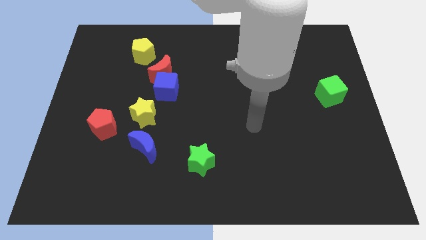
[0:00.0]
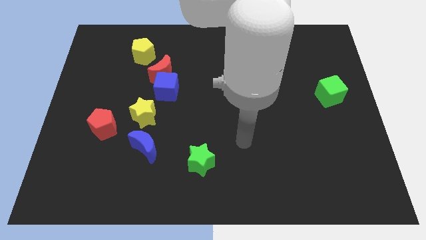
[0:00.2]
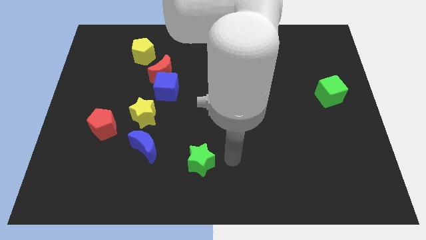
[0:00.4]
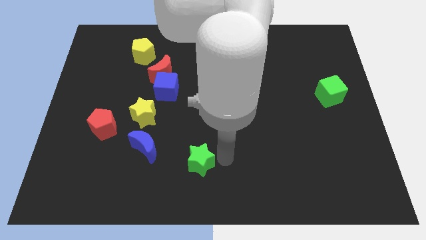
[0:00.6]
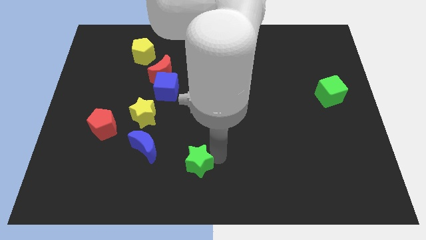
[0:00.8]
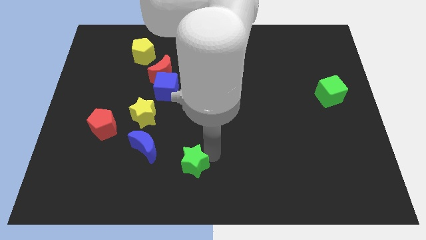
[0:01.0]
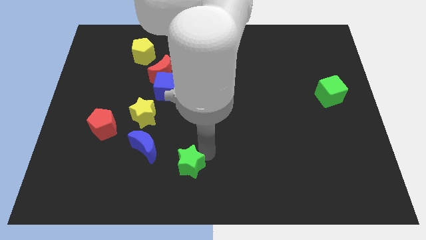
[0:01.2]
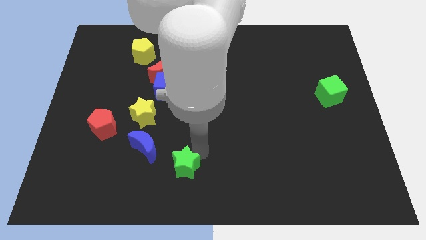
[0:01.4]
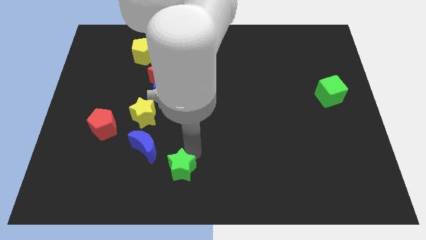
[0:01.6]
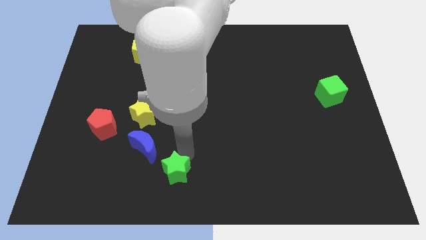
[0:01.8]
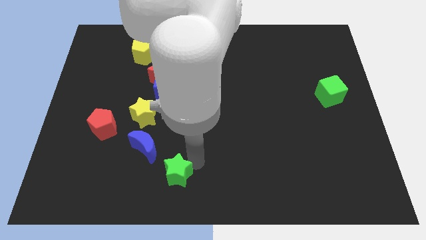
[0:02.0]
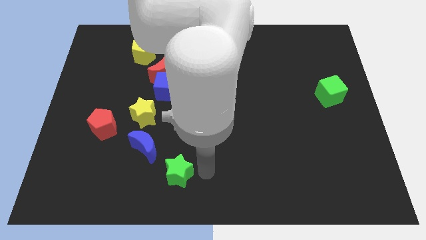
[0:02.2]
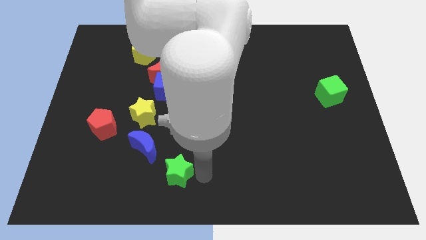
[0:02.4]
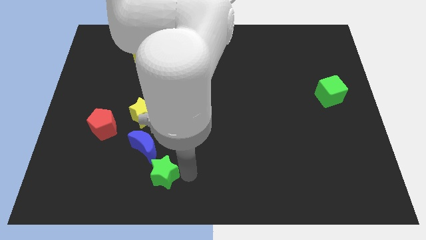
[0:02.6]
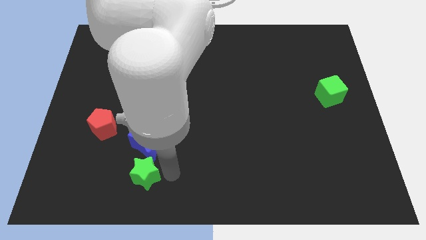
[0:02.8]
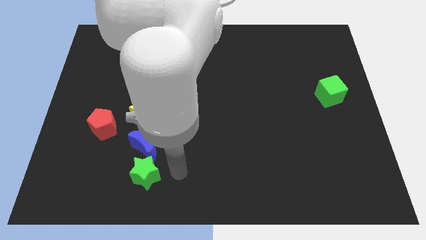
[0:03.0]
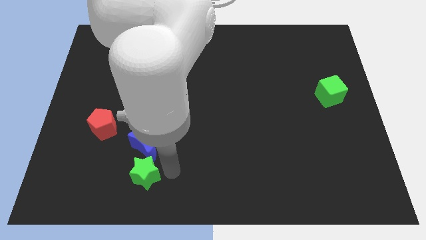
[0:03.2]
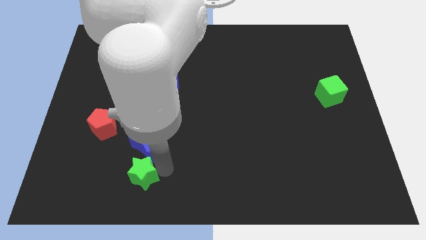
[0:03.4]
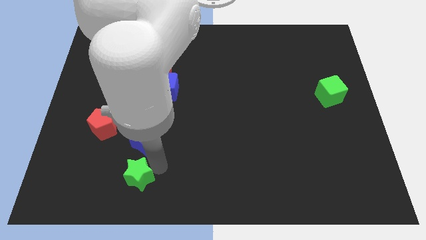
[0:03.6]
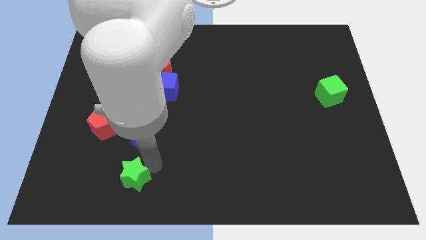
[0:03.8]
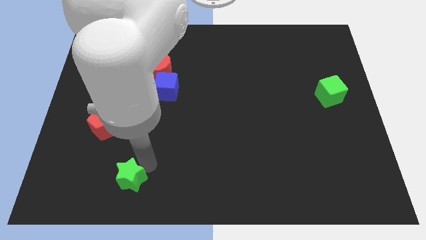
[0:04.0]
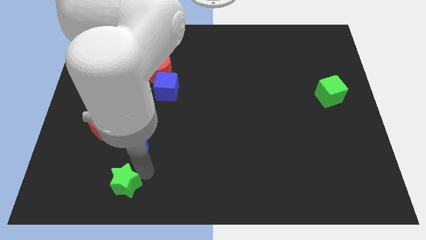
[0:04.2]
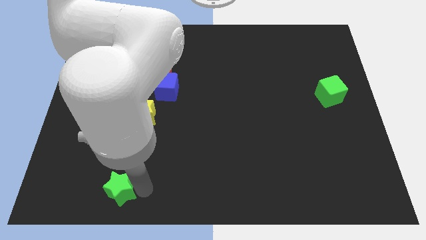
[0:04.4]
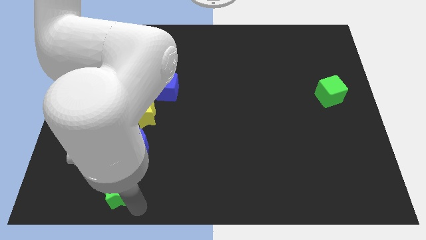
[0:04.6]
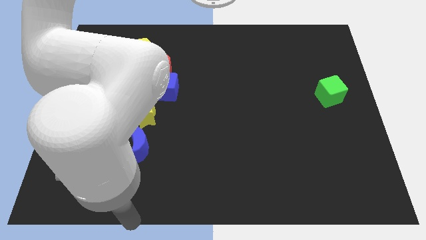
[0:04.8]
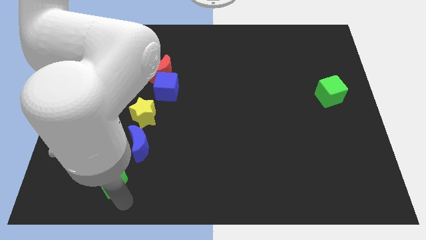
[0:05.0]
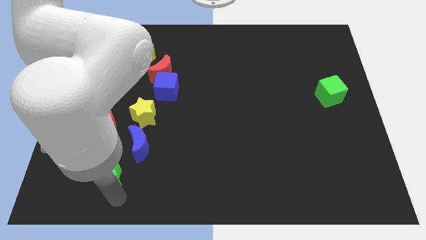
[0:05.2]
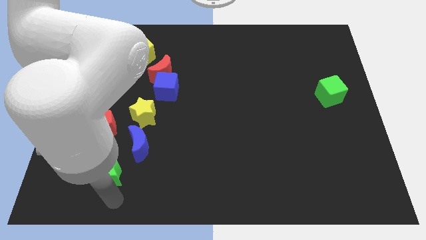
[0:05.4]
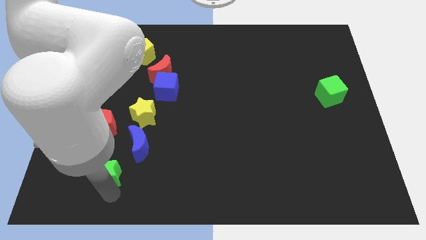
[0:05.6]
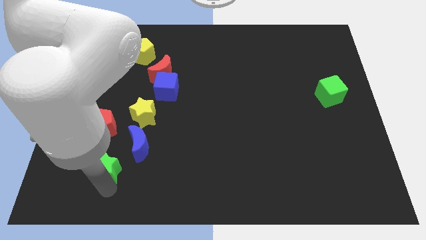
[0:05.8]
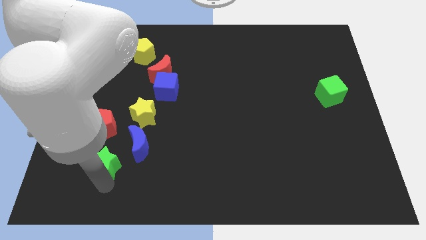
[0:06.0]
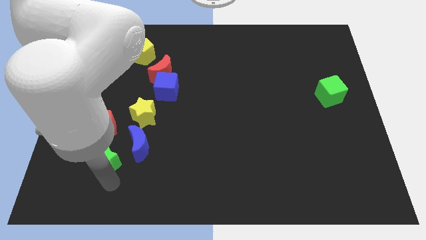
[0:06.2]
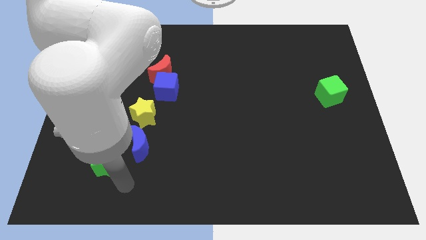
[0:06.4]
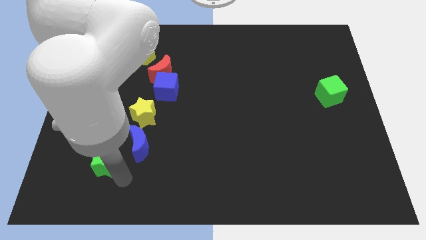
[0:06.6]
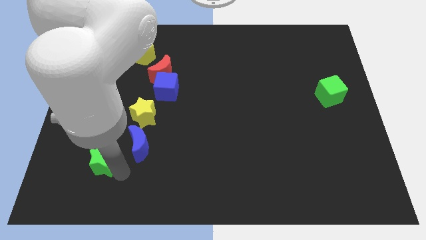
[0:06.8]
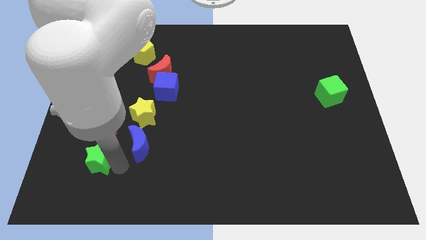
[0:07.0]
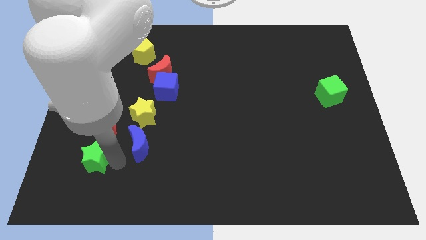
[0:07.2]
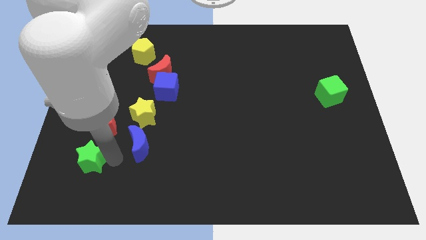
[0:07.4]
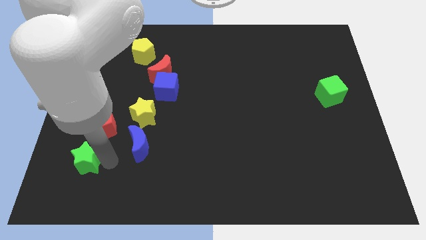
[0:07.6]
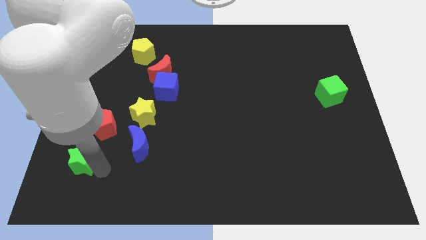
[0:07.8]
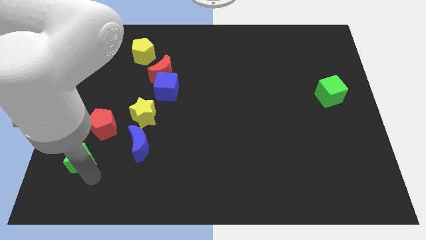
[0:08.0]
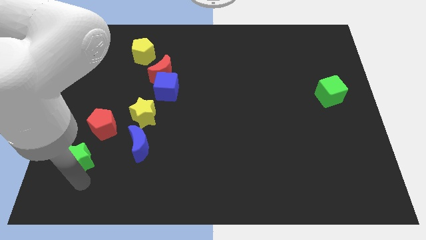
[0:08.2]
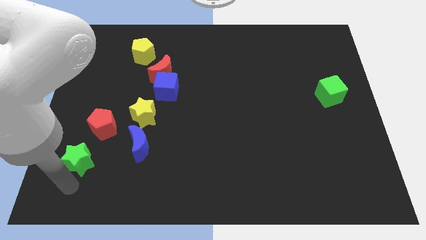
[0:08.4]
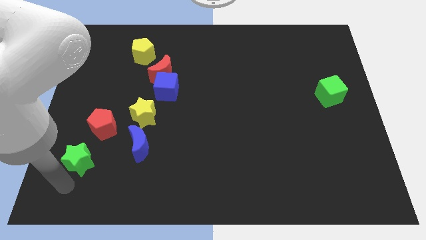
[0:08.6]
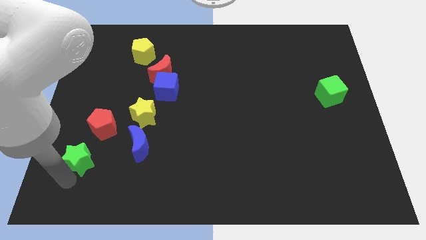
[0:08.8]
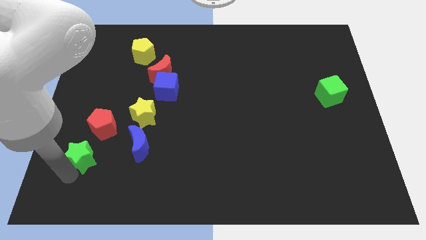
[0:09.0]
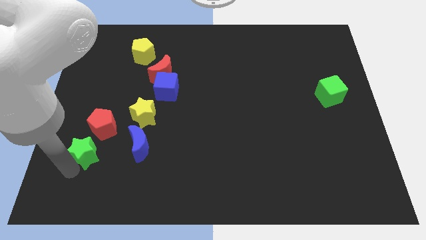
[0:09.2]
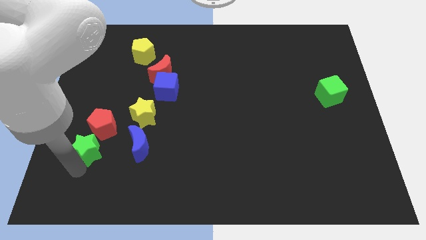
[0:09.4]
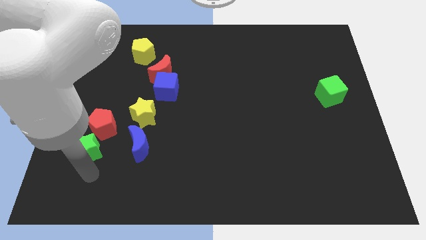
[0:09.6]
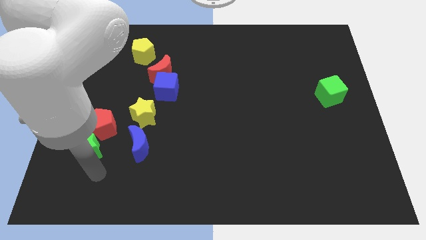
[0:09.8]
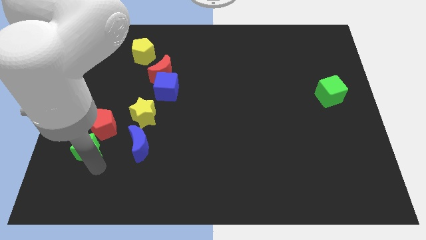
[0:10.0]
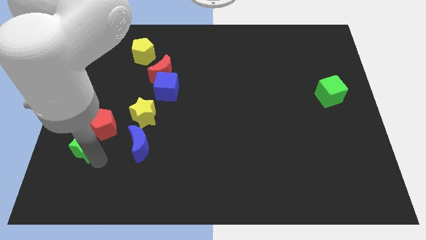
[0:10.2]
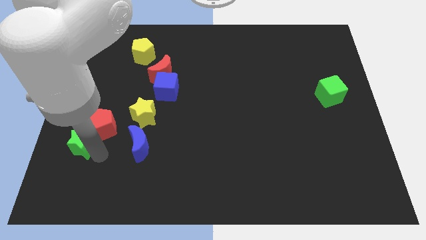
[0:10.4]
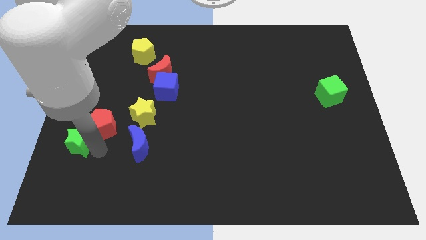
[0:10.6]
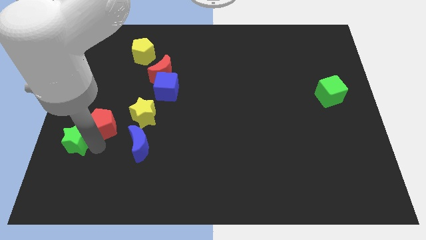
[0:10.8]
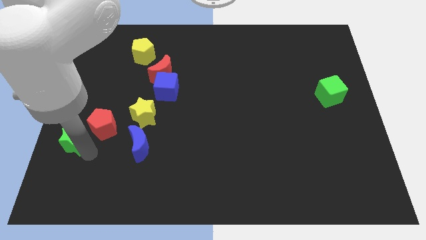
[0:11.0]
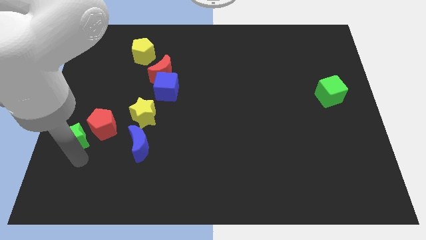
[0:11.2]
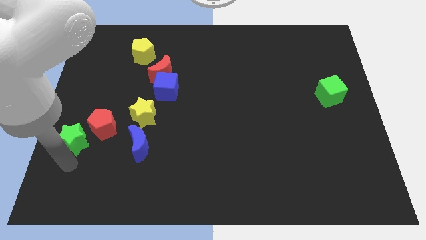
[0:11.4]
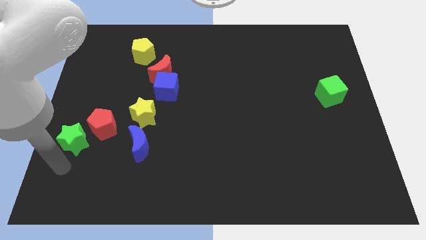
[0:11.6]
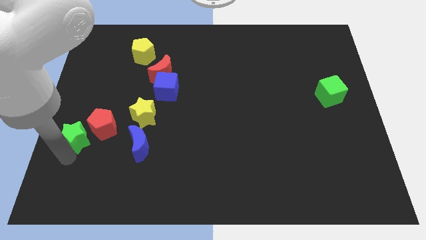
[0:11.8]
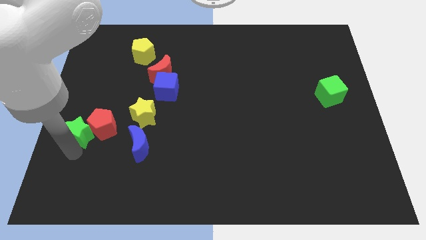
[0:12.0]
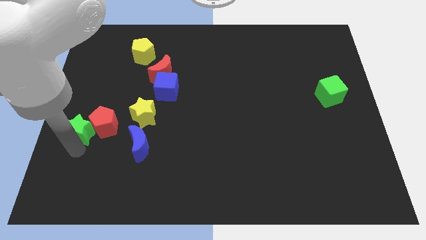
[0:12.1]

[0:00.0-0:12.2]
put the green star to the left side of the yellow star

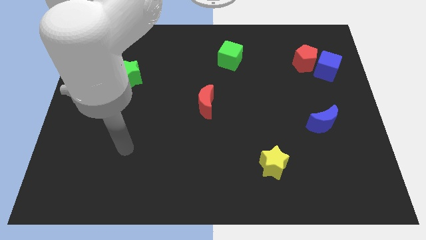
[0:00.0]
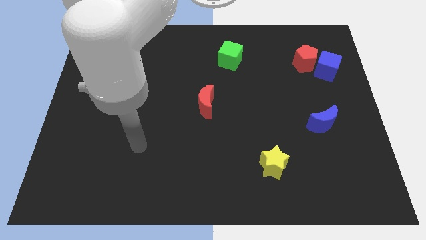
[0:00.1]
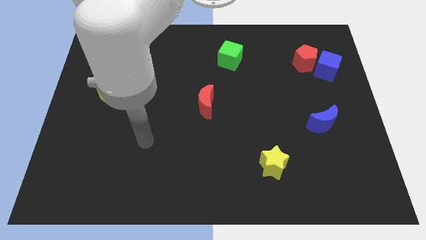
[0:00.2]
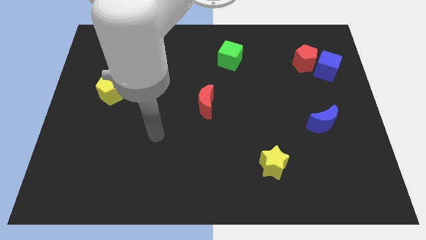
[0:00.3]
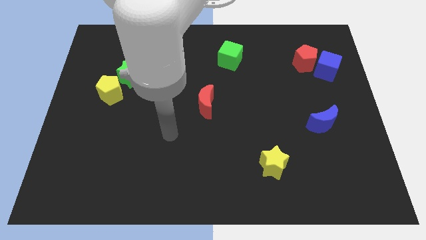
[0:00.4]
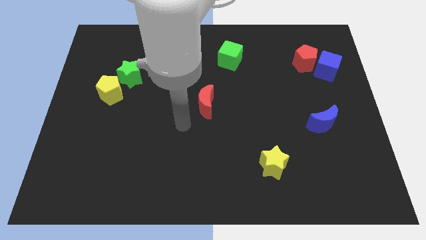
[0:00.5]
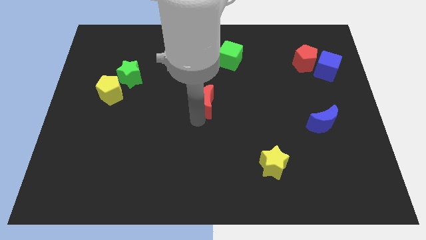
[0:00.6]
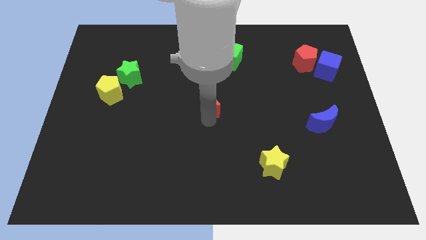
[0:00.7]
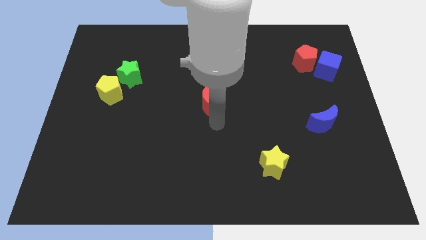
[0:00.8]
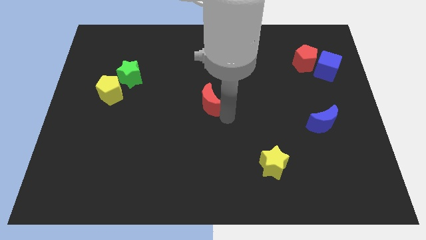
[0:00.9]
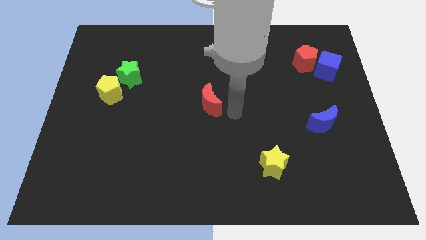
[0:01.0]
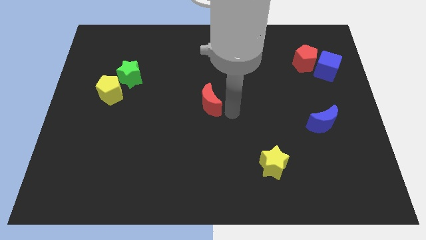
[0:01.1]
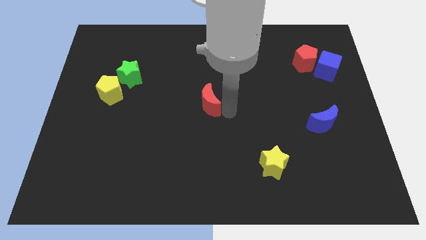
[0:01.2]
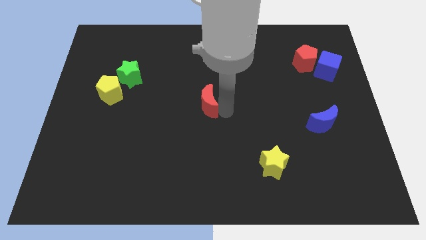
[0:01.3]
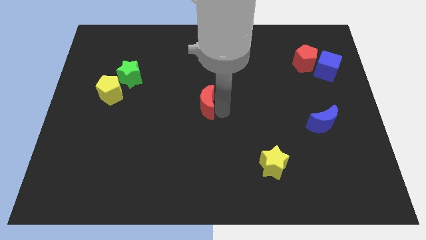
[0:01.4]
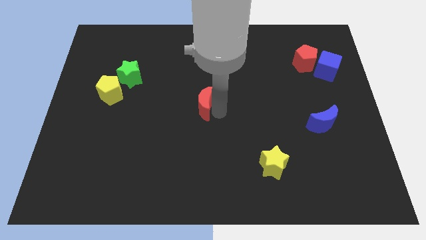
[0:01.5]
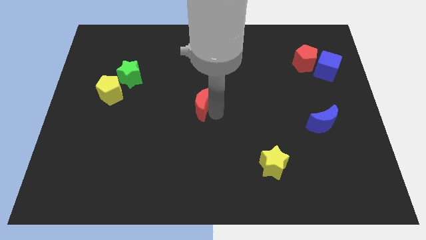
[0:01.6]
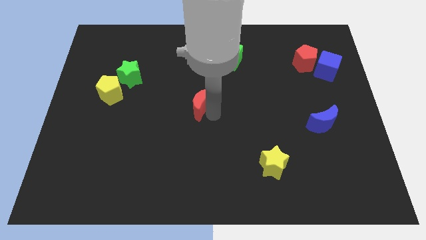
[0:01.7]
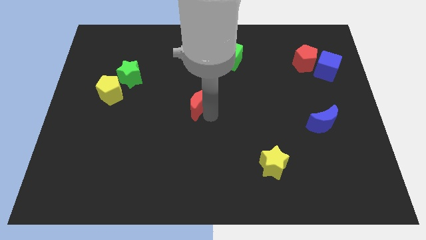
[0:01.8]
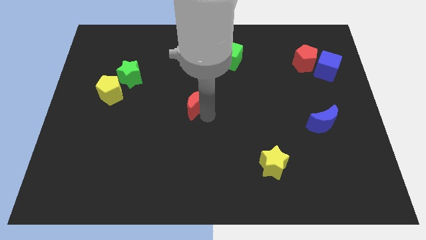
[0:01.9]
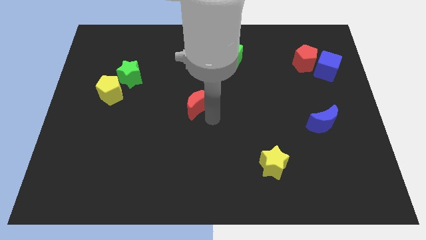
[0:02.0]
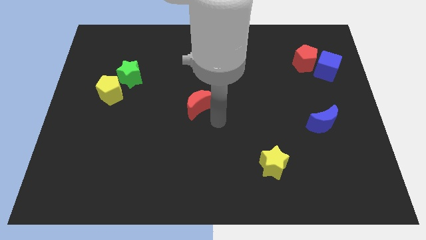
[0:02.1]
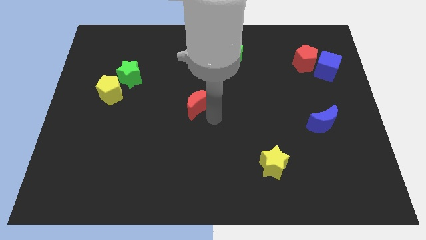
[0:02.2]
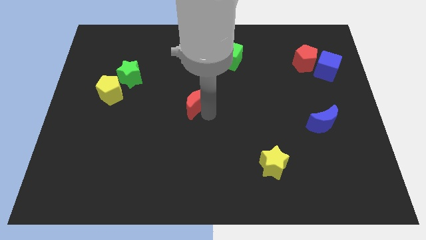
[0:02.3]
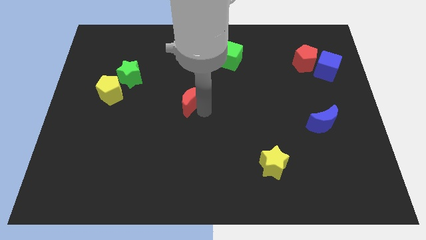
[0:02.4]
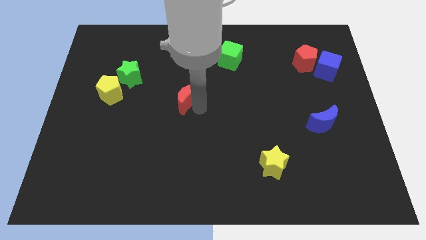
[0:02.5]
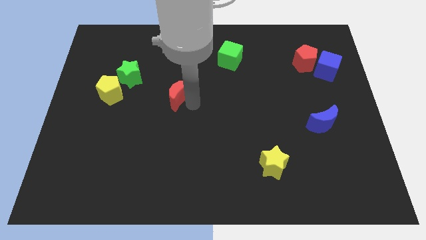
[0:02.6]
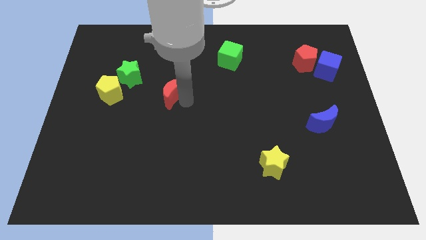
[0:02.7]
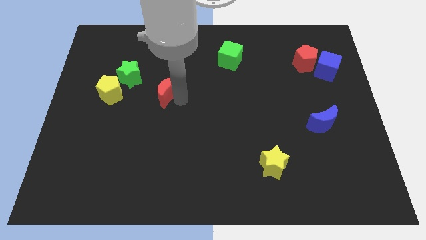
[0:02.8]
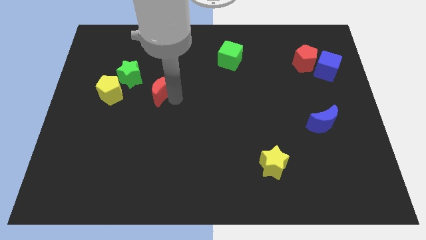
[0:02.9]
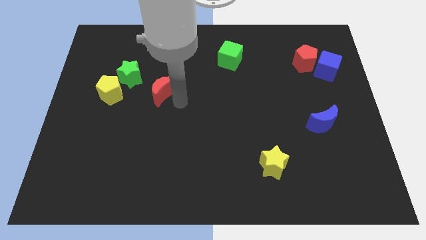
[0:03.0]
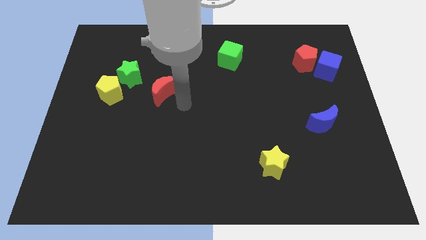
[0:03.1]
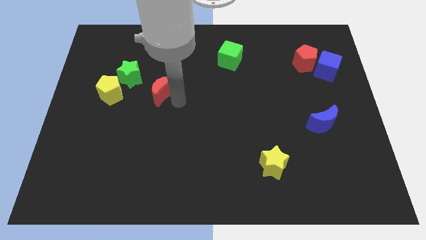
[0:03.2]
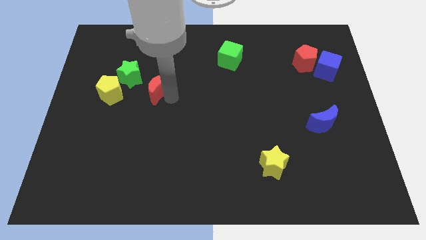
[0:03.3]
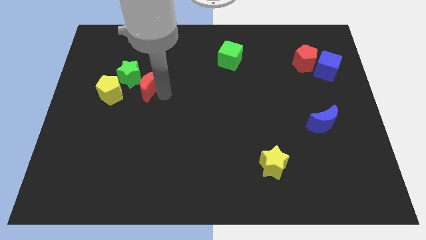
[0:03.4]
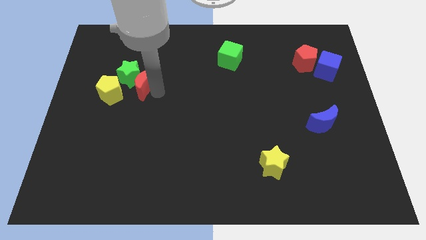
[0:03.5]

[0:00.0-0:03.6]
slide the red moon to the top right side of the yellow pentagon
